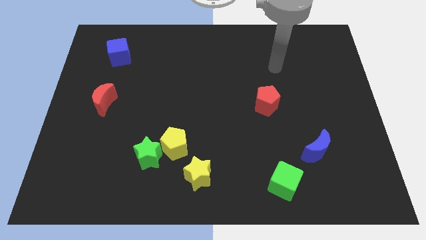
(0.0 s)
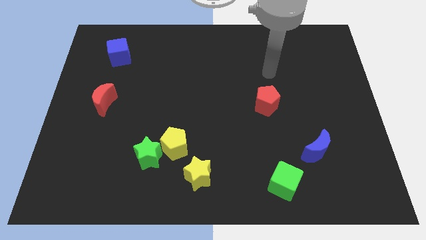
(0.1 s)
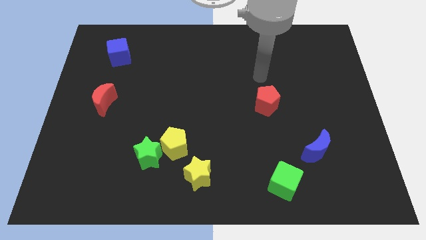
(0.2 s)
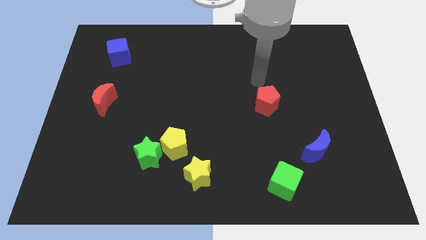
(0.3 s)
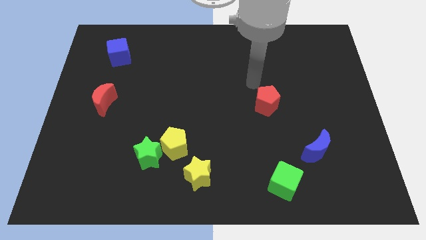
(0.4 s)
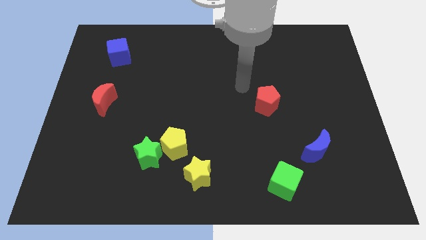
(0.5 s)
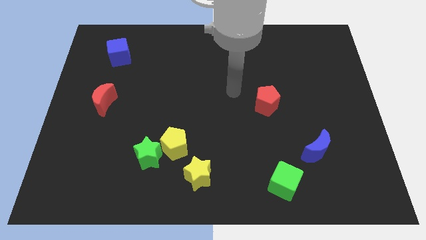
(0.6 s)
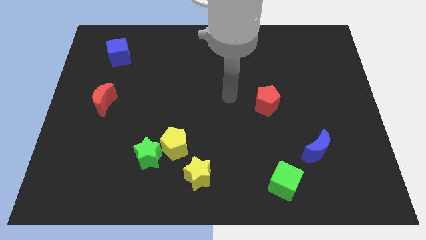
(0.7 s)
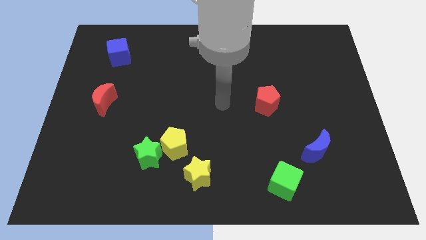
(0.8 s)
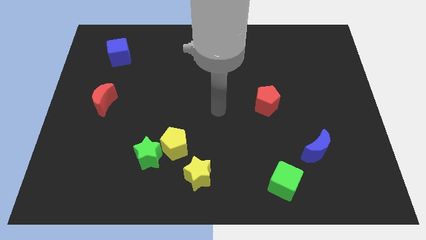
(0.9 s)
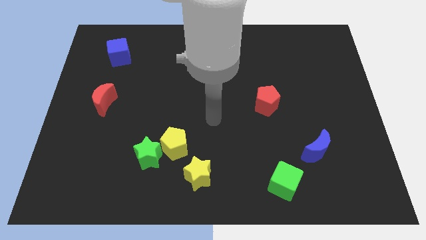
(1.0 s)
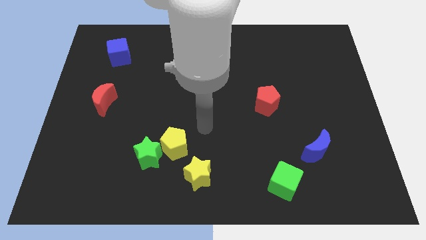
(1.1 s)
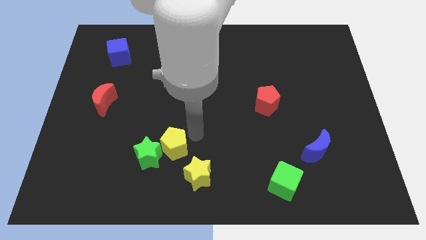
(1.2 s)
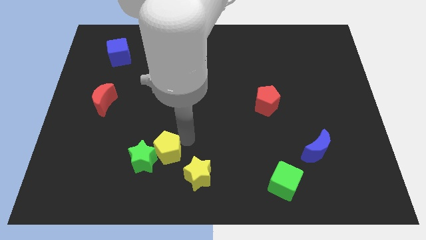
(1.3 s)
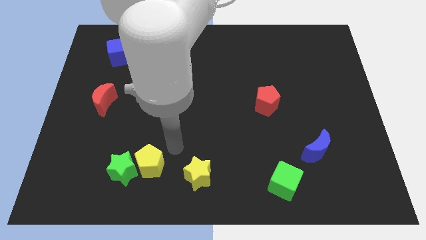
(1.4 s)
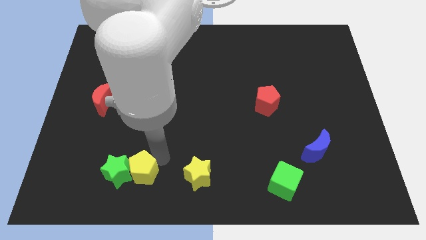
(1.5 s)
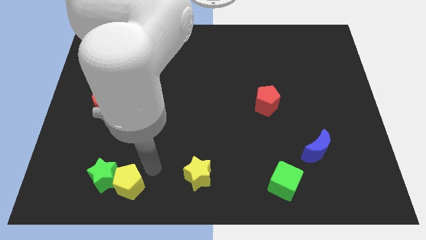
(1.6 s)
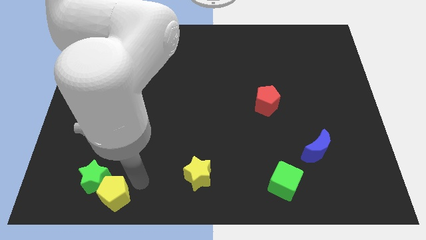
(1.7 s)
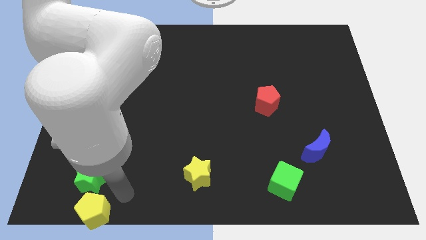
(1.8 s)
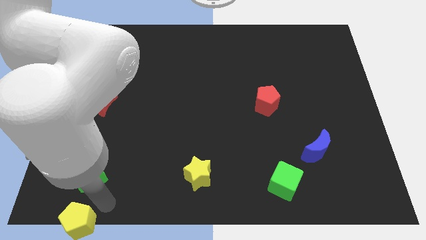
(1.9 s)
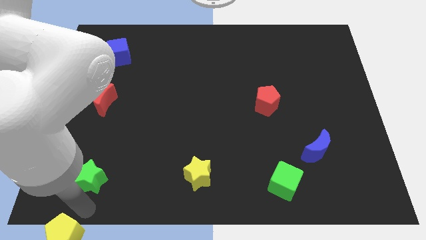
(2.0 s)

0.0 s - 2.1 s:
move the green star away from the yellow pentagon

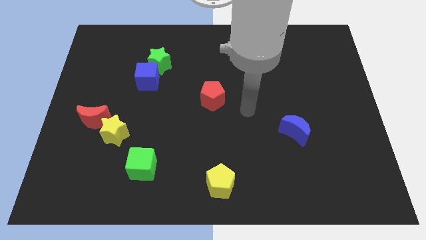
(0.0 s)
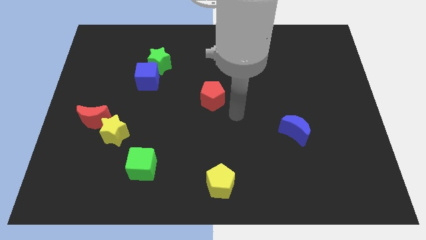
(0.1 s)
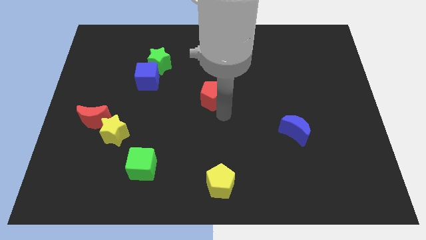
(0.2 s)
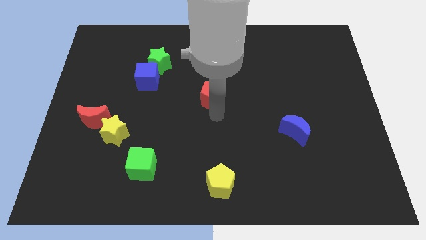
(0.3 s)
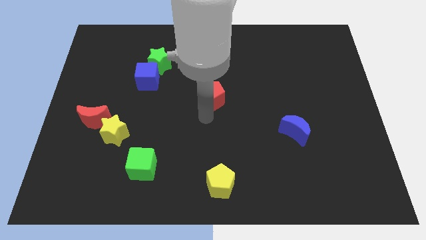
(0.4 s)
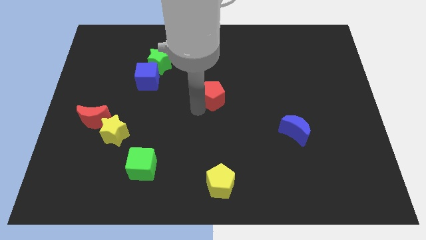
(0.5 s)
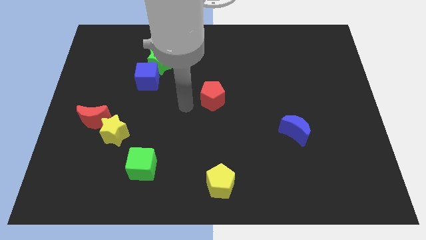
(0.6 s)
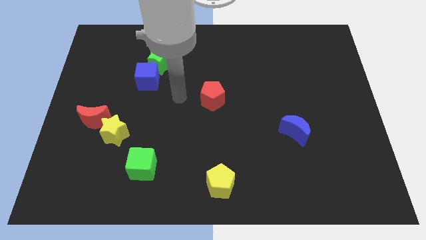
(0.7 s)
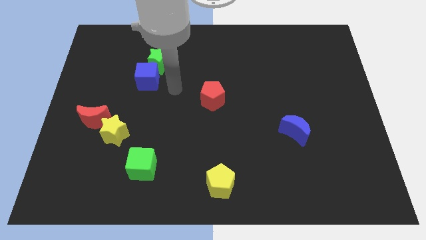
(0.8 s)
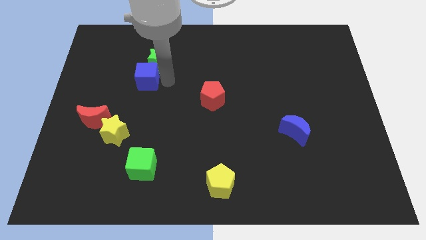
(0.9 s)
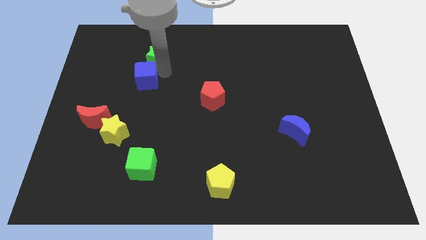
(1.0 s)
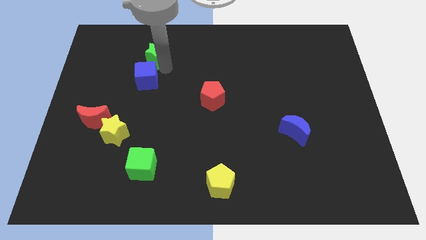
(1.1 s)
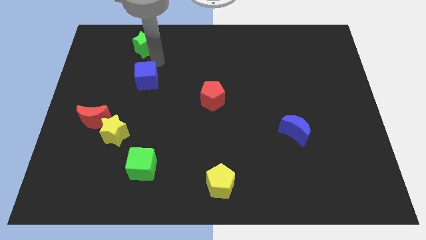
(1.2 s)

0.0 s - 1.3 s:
pull the blue cube apart from the green star

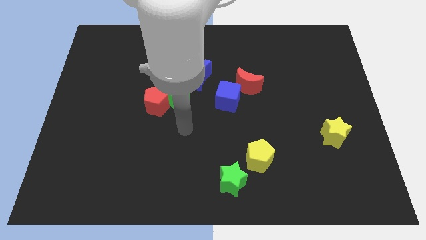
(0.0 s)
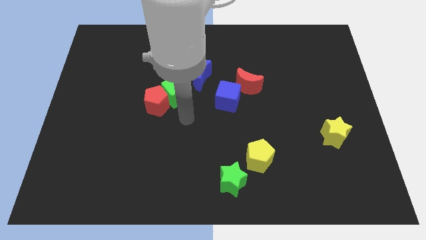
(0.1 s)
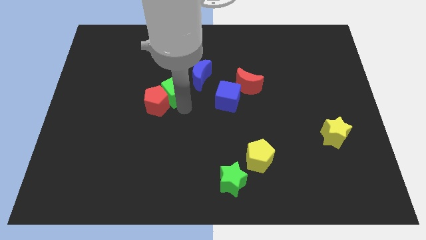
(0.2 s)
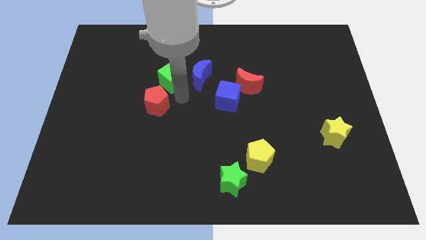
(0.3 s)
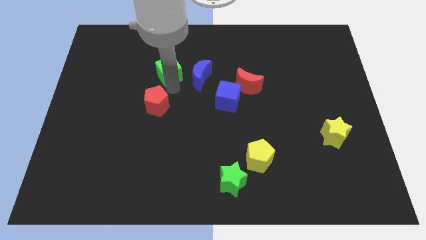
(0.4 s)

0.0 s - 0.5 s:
move the red pentagon away from the green cube

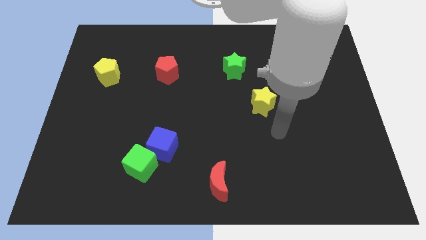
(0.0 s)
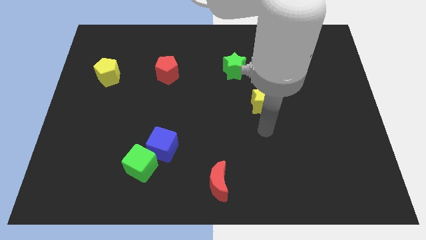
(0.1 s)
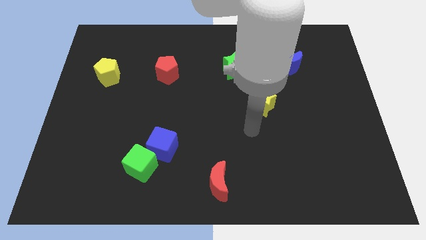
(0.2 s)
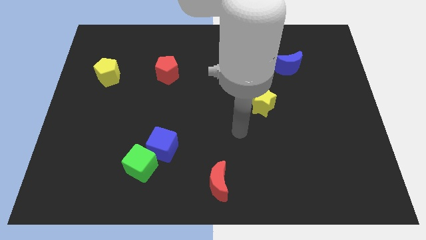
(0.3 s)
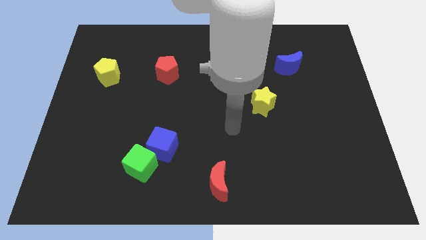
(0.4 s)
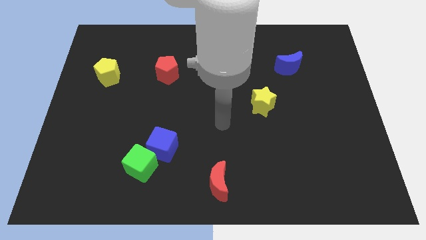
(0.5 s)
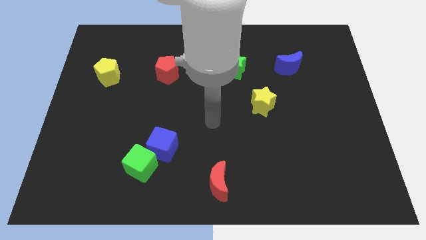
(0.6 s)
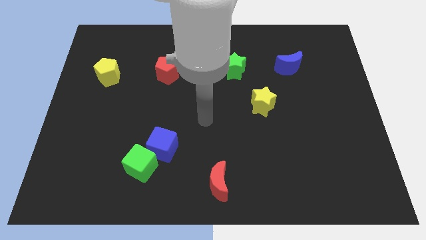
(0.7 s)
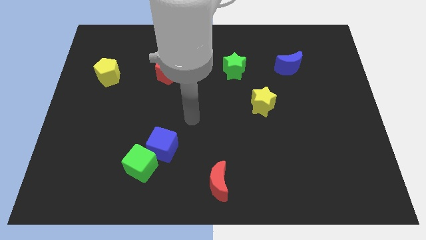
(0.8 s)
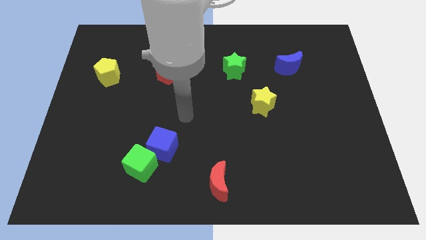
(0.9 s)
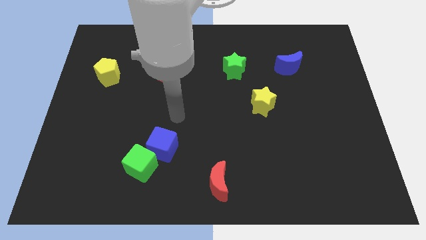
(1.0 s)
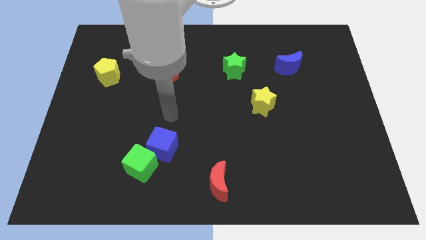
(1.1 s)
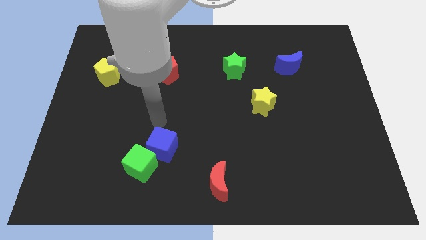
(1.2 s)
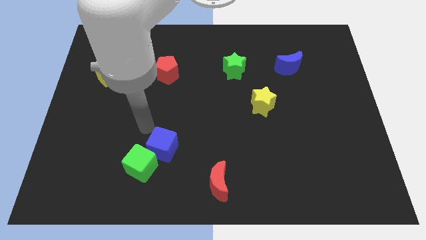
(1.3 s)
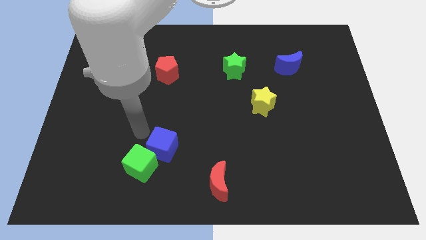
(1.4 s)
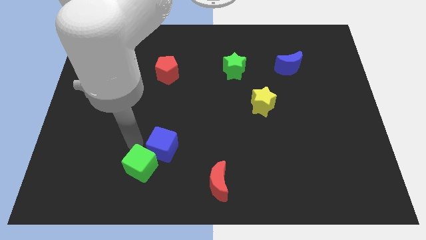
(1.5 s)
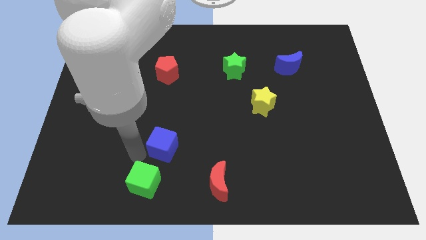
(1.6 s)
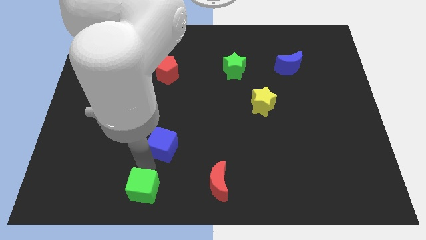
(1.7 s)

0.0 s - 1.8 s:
move the blue cube away from the green cube

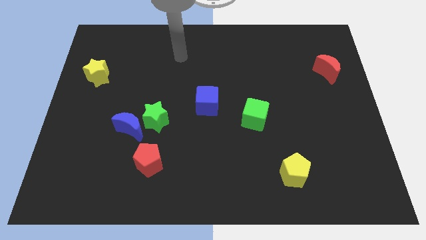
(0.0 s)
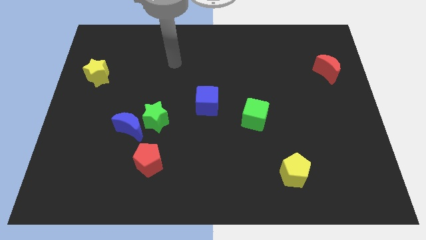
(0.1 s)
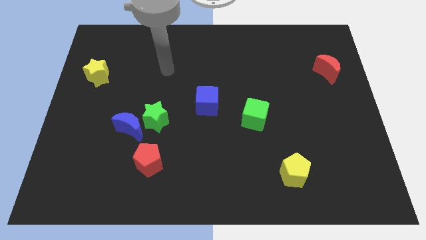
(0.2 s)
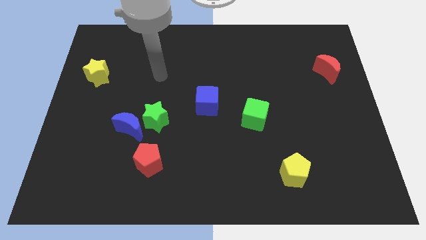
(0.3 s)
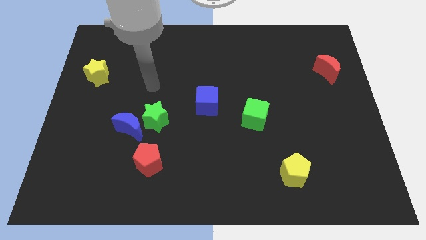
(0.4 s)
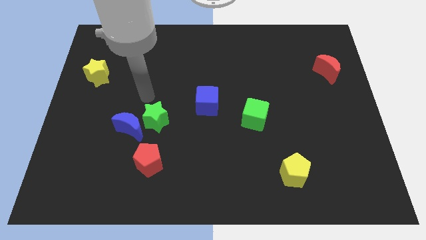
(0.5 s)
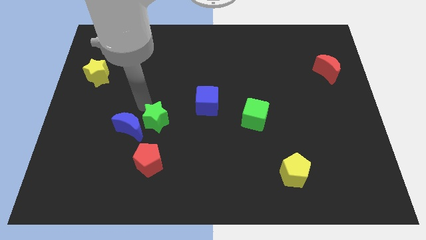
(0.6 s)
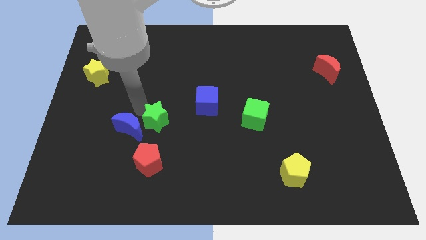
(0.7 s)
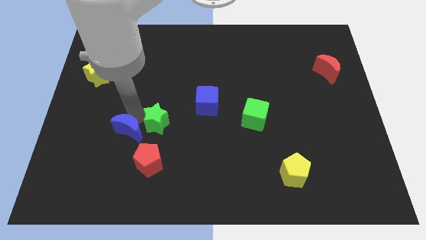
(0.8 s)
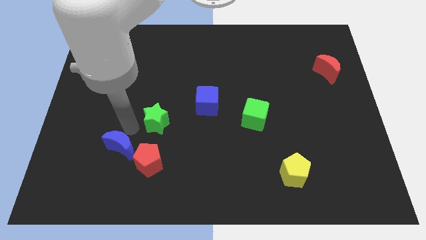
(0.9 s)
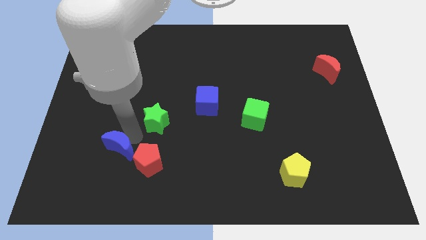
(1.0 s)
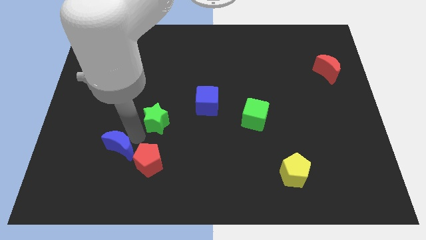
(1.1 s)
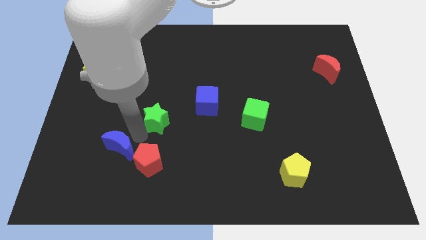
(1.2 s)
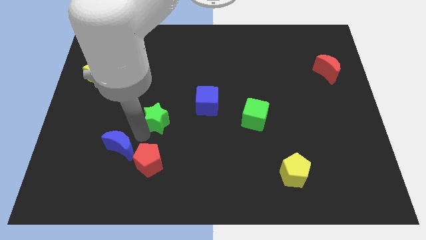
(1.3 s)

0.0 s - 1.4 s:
move the green star away from the blue moon

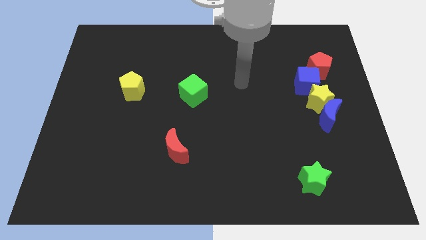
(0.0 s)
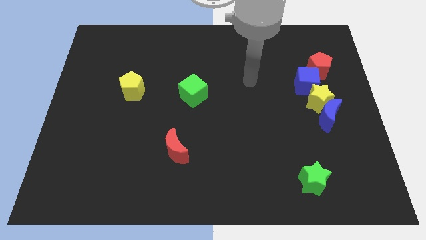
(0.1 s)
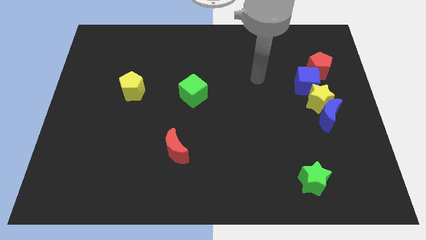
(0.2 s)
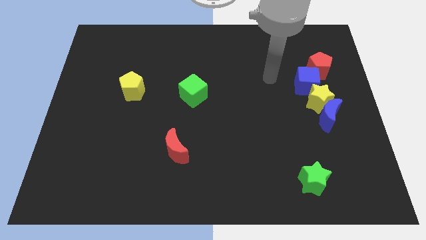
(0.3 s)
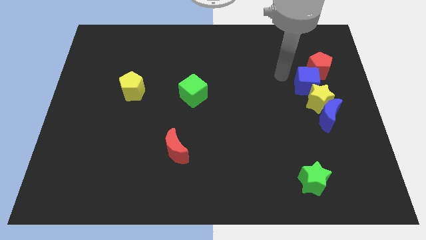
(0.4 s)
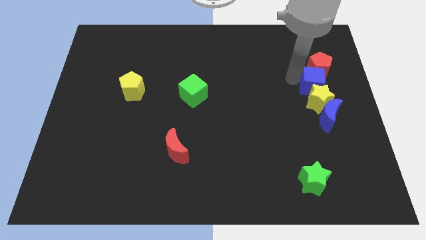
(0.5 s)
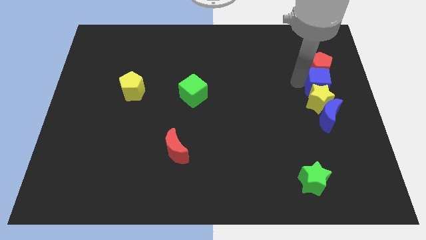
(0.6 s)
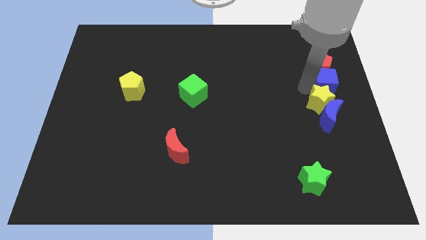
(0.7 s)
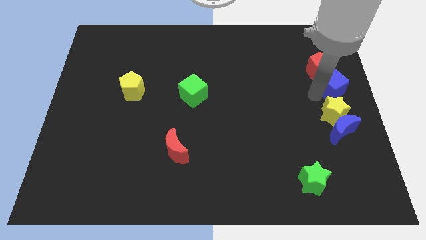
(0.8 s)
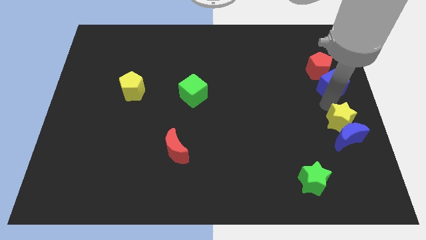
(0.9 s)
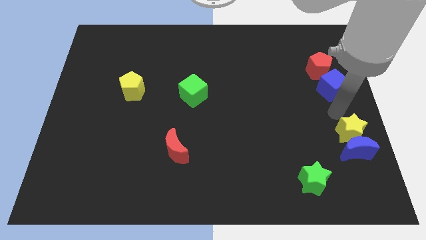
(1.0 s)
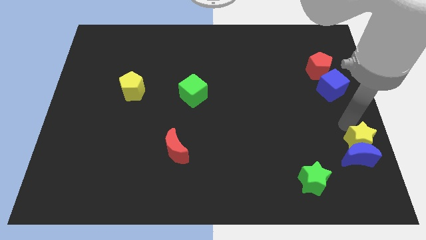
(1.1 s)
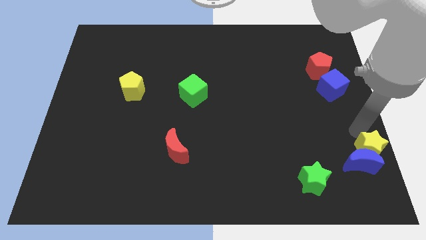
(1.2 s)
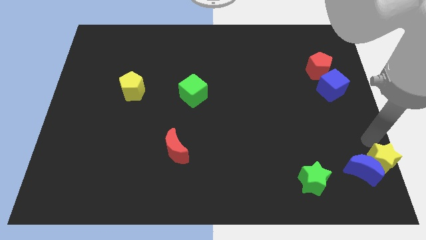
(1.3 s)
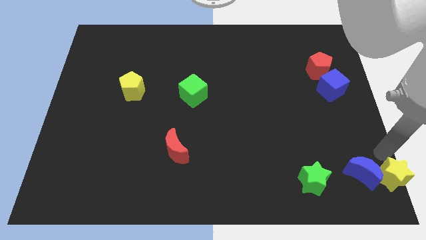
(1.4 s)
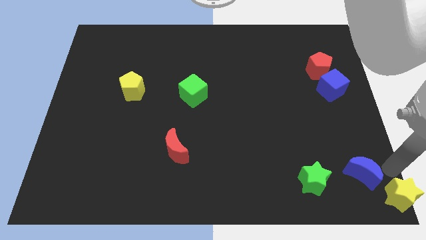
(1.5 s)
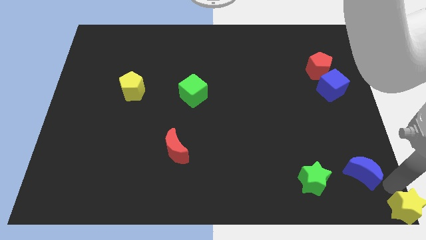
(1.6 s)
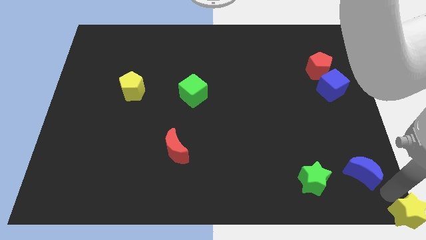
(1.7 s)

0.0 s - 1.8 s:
move the blue moon away from the yellow star

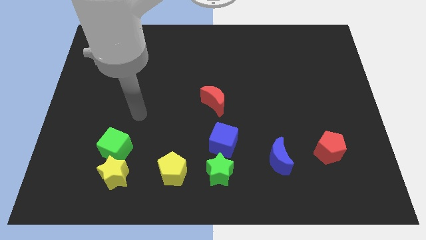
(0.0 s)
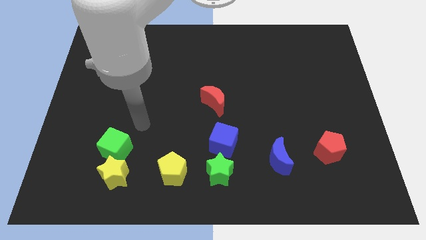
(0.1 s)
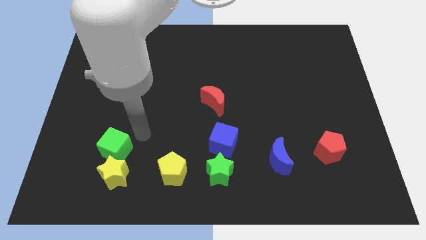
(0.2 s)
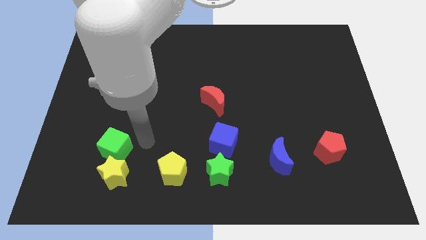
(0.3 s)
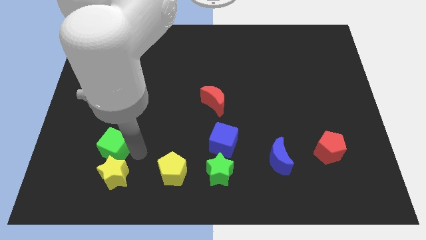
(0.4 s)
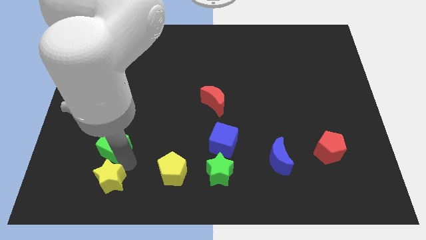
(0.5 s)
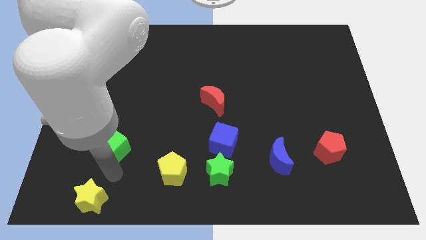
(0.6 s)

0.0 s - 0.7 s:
pull the green cube apart from the yellow star
